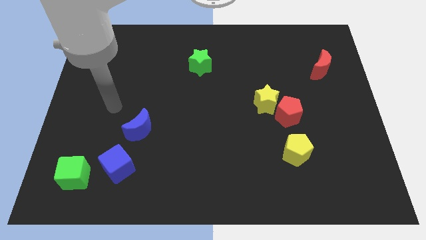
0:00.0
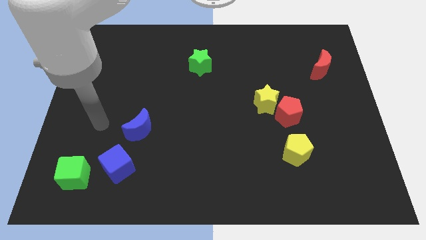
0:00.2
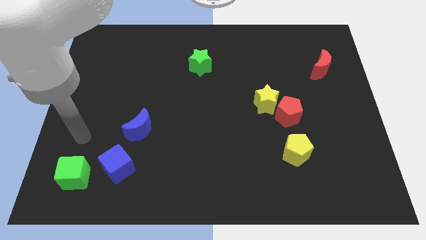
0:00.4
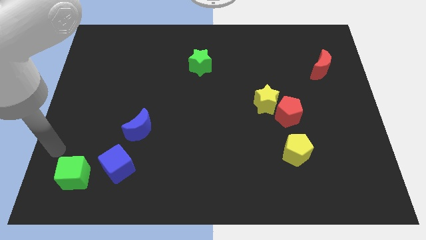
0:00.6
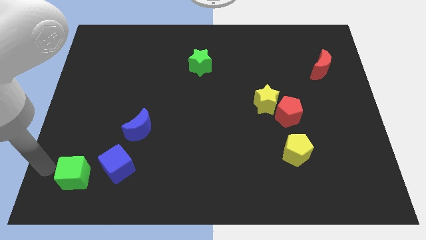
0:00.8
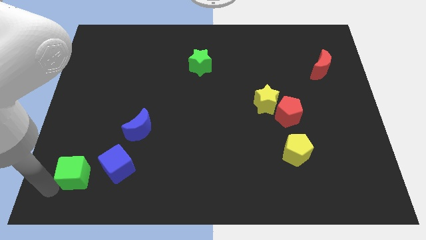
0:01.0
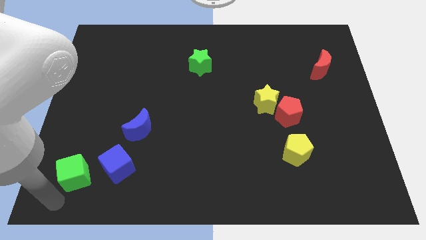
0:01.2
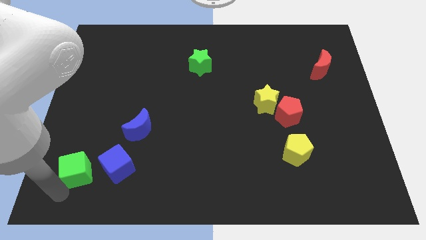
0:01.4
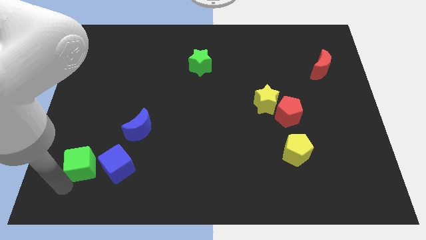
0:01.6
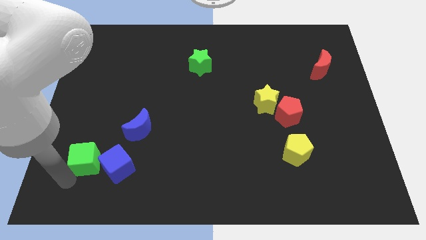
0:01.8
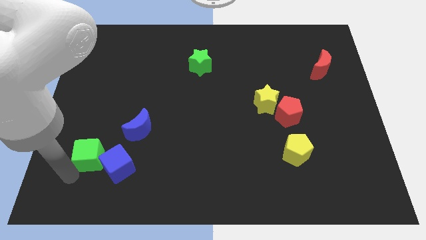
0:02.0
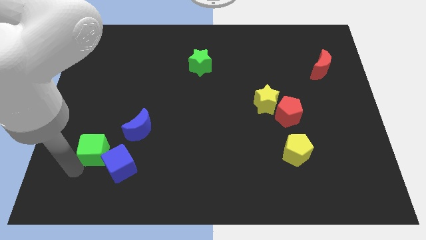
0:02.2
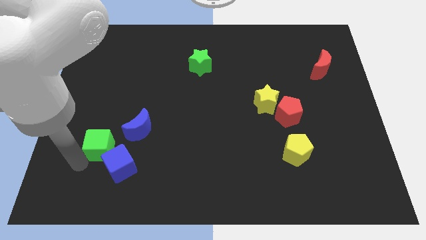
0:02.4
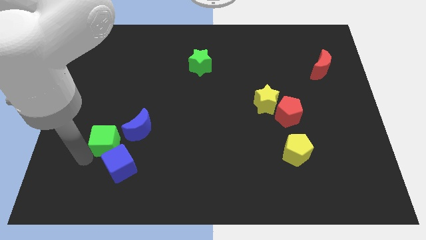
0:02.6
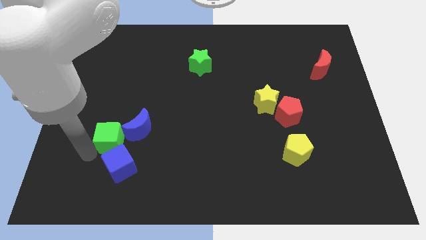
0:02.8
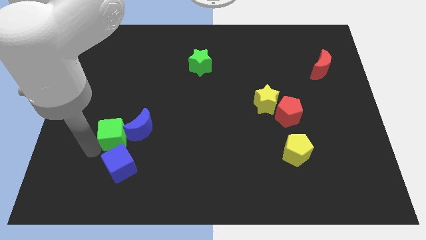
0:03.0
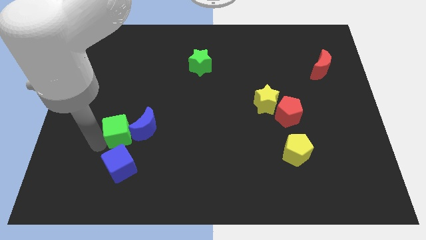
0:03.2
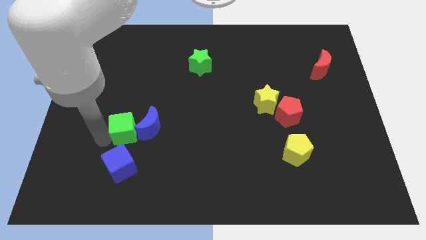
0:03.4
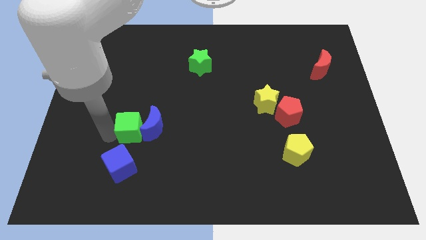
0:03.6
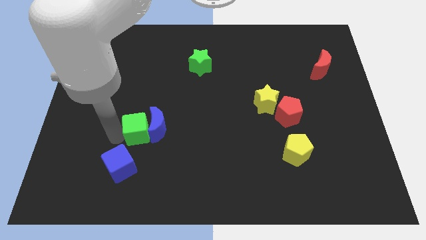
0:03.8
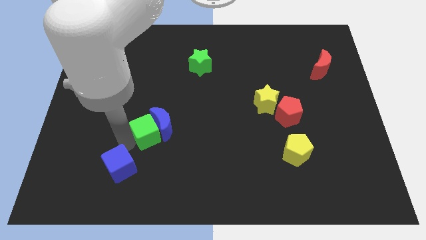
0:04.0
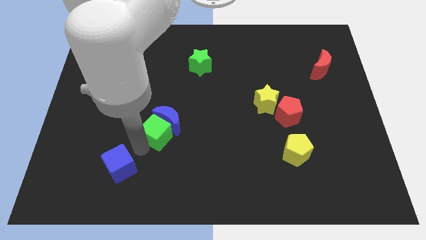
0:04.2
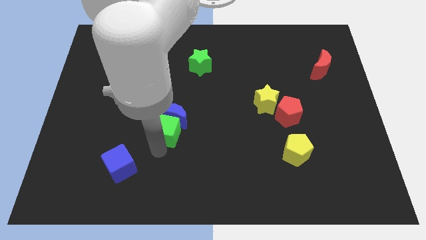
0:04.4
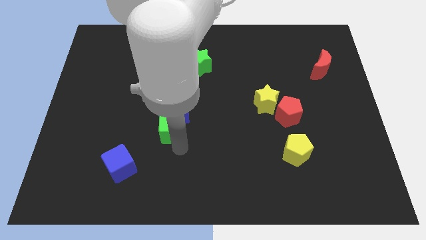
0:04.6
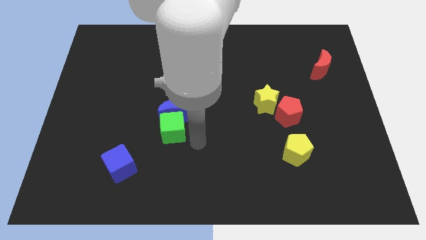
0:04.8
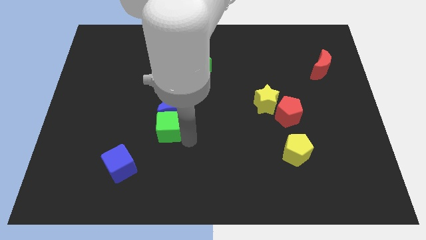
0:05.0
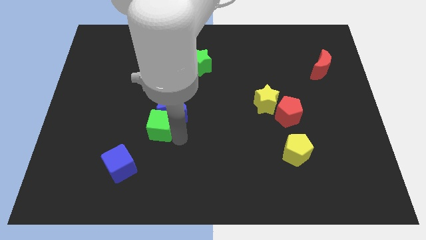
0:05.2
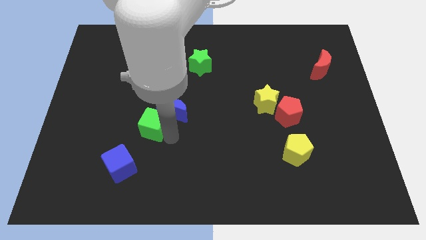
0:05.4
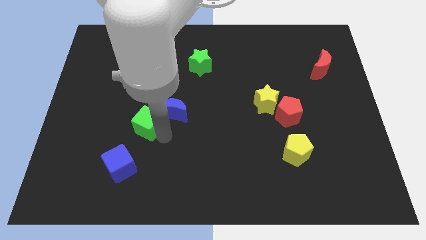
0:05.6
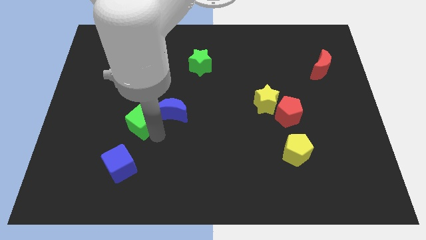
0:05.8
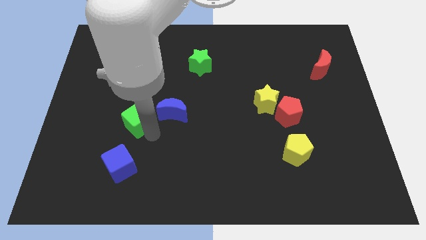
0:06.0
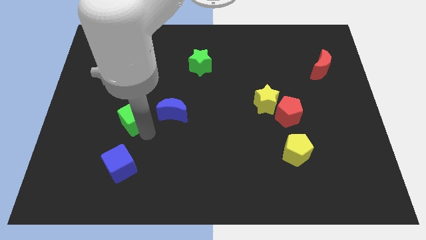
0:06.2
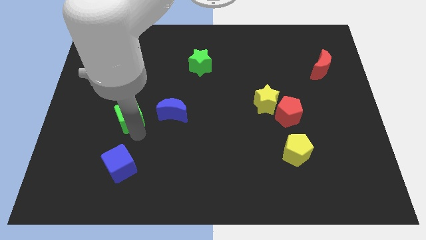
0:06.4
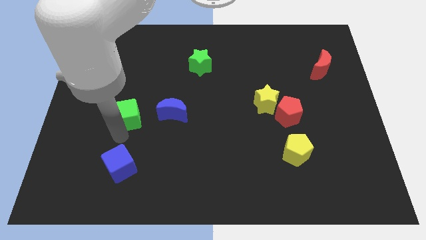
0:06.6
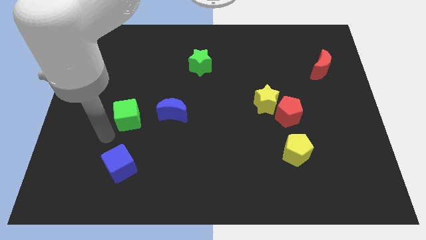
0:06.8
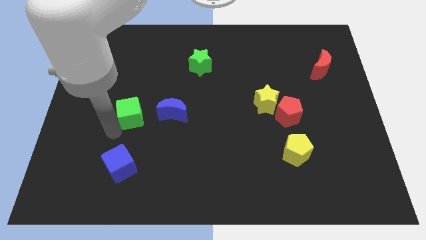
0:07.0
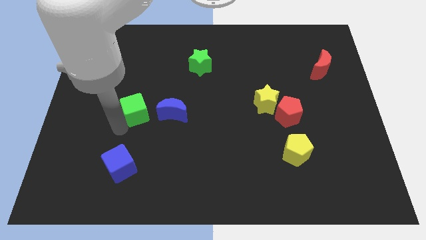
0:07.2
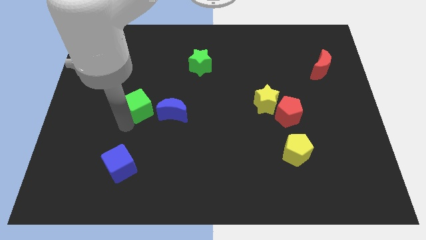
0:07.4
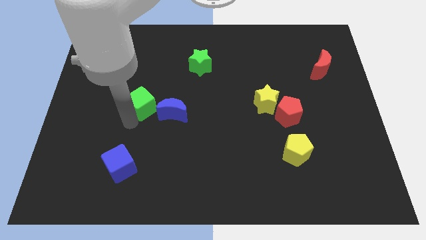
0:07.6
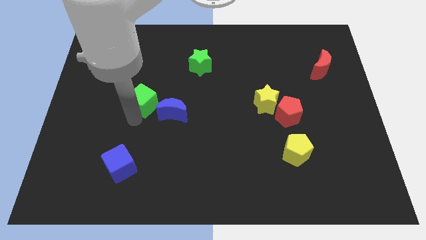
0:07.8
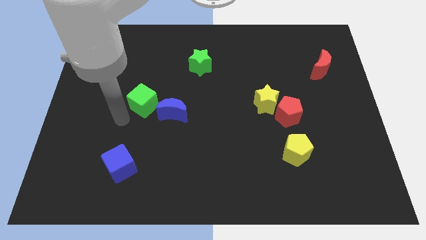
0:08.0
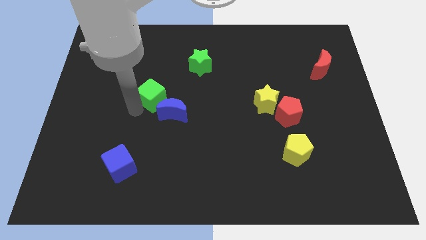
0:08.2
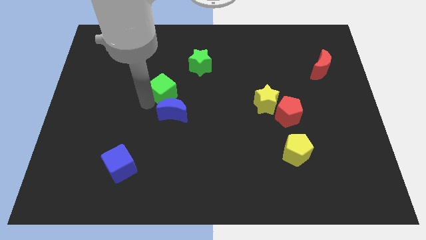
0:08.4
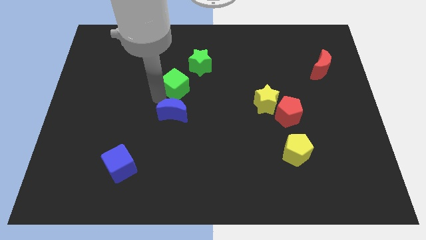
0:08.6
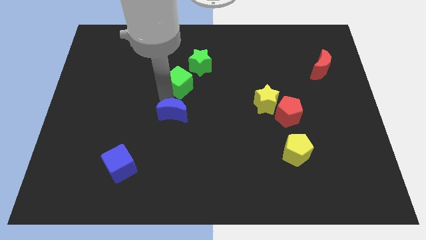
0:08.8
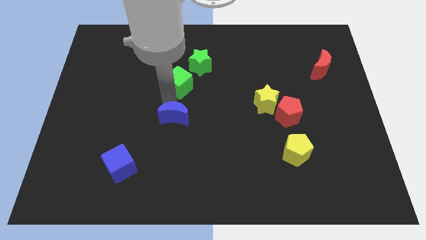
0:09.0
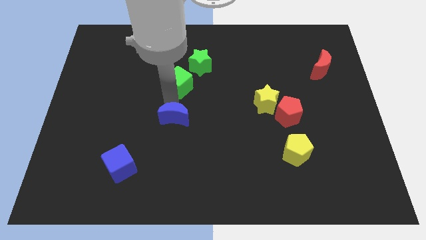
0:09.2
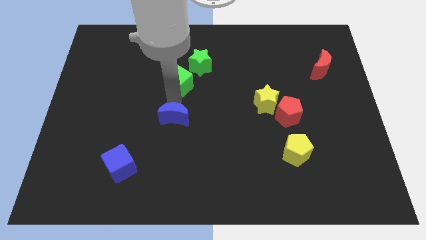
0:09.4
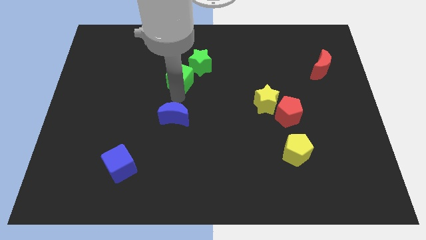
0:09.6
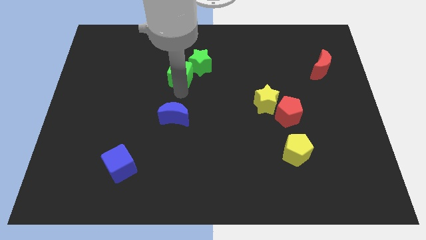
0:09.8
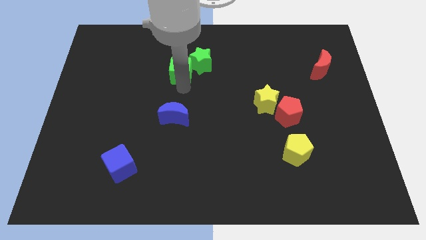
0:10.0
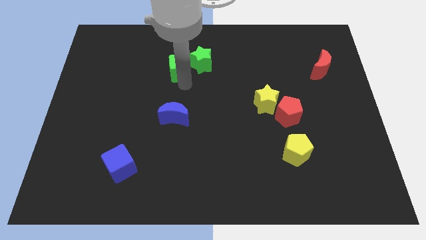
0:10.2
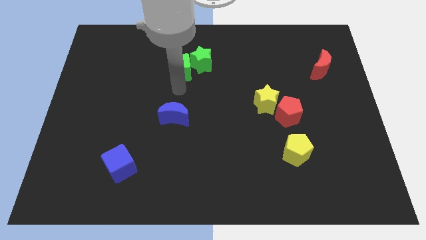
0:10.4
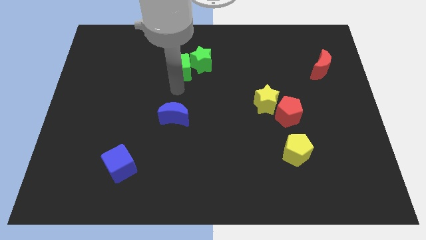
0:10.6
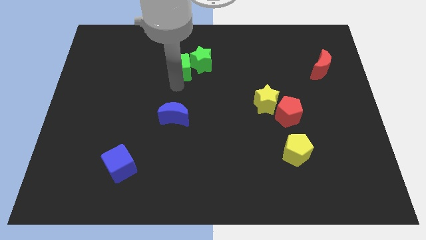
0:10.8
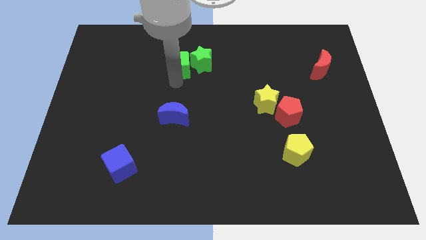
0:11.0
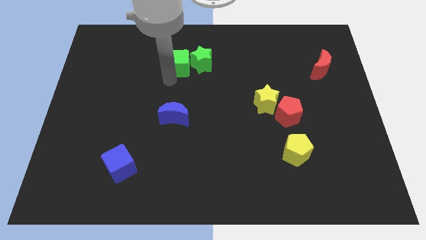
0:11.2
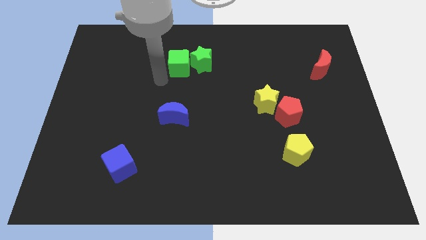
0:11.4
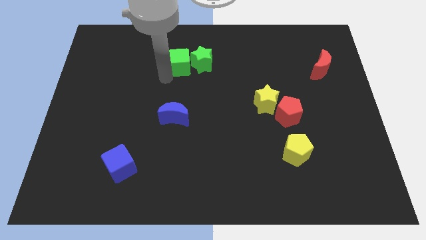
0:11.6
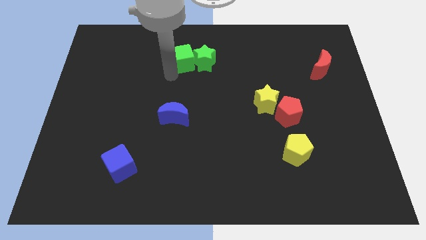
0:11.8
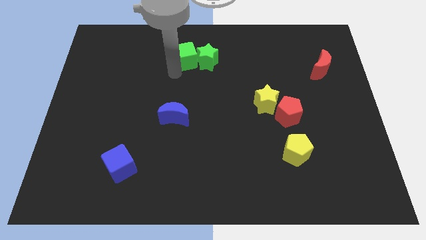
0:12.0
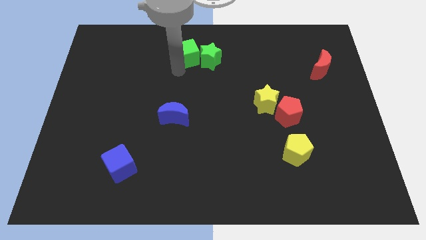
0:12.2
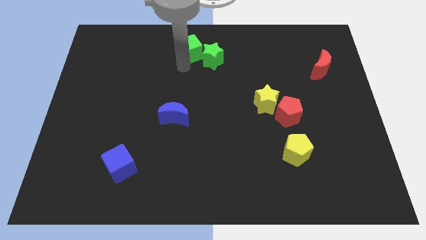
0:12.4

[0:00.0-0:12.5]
put the green cube to the top

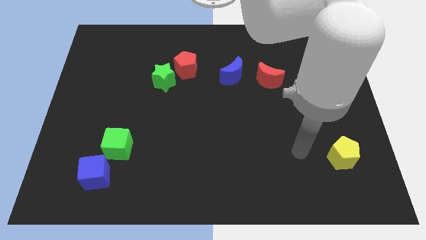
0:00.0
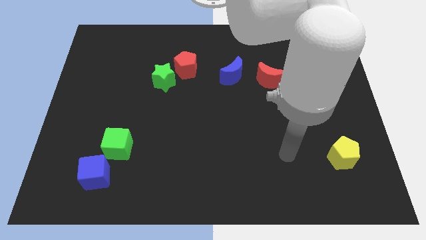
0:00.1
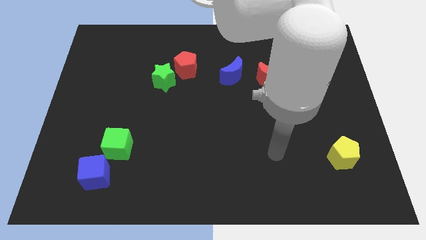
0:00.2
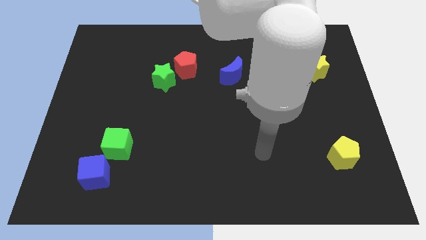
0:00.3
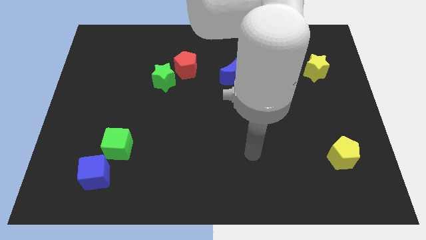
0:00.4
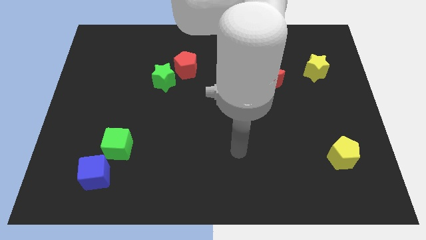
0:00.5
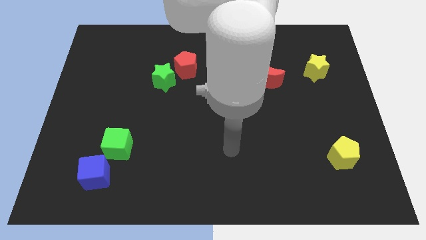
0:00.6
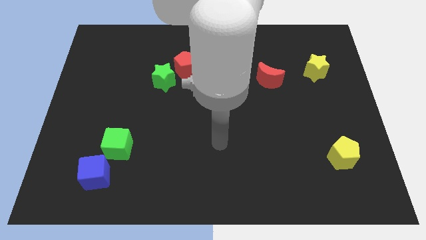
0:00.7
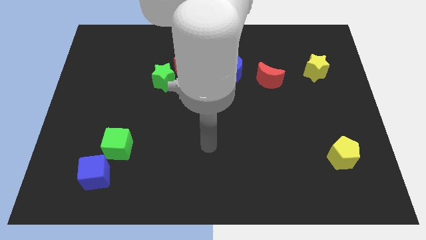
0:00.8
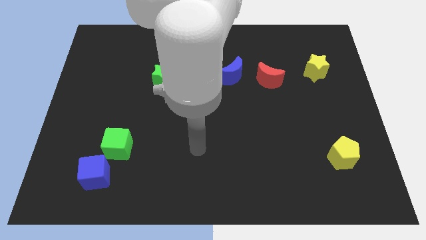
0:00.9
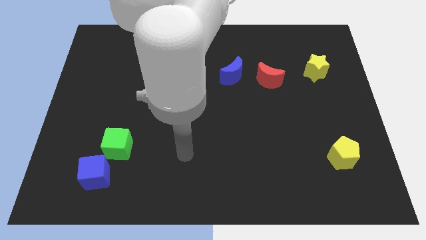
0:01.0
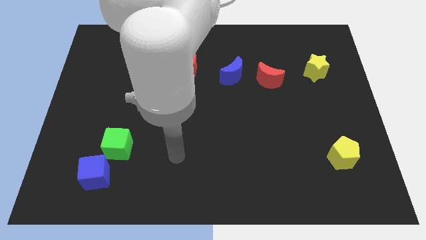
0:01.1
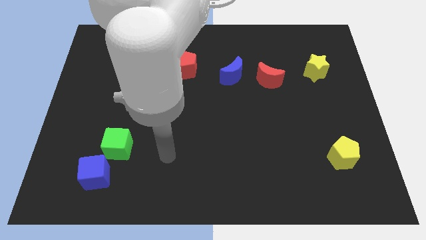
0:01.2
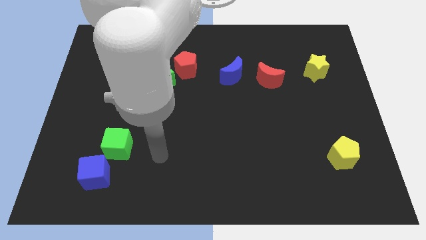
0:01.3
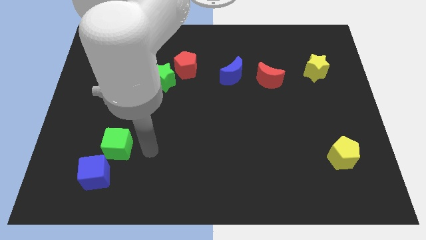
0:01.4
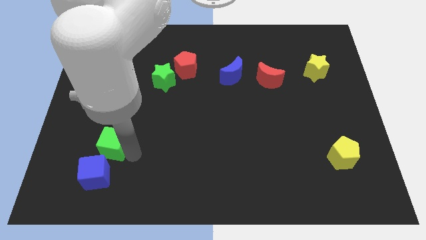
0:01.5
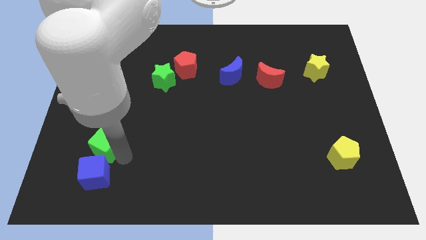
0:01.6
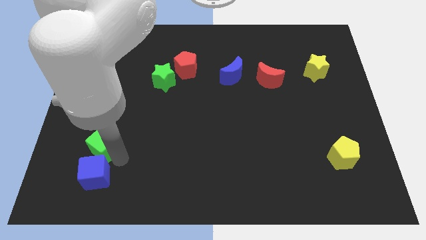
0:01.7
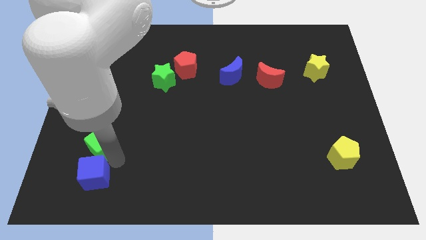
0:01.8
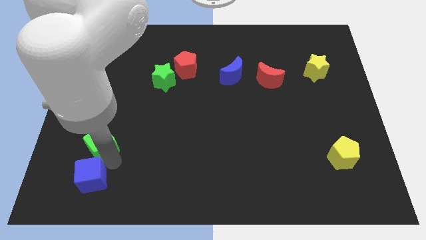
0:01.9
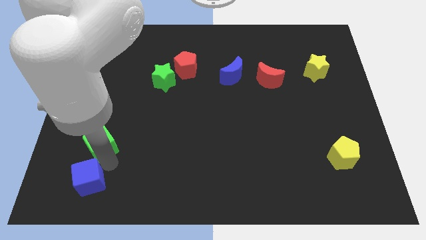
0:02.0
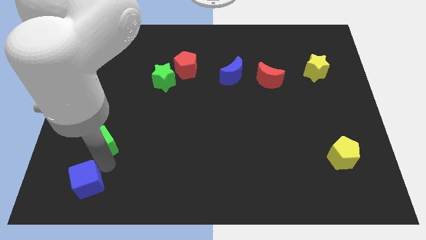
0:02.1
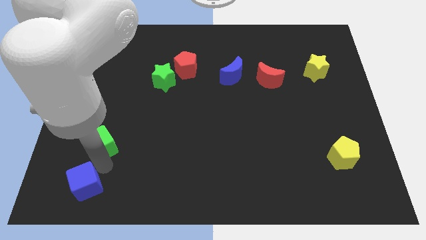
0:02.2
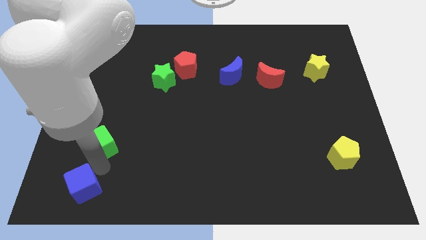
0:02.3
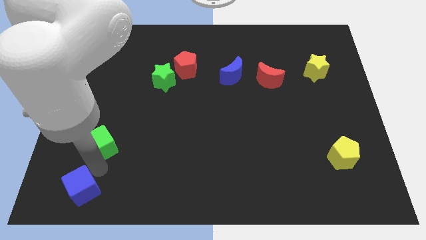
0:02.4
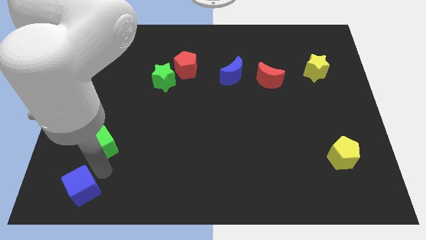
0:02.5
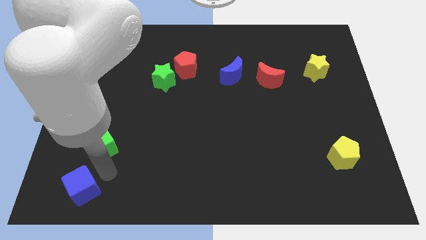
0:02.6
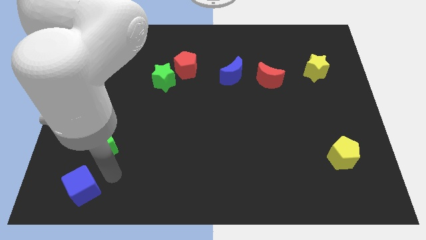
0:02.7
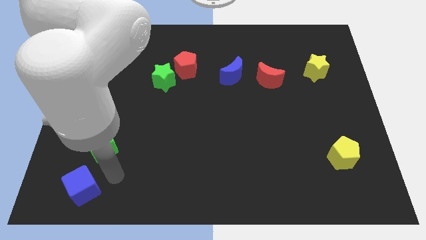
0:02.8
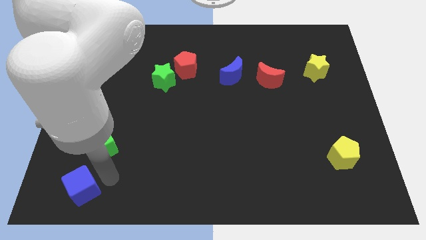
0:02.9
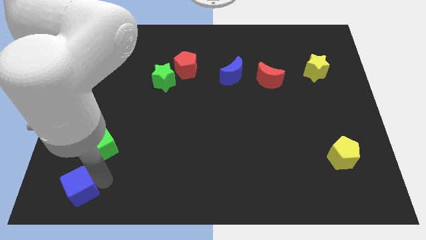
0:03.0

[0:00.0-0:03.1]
push the blue cube to the bottom left corner
